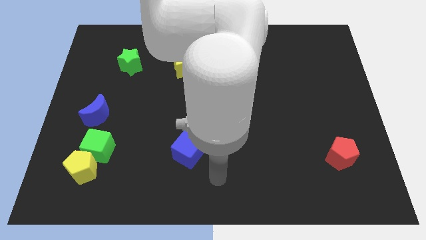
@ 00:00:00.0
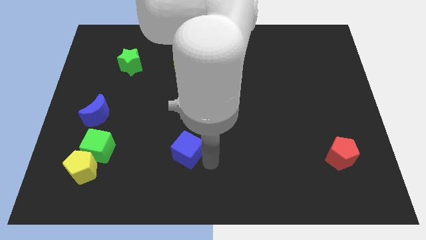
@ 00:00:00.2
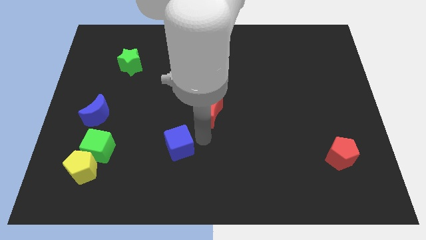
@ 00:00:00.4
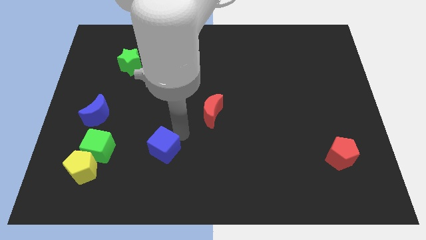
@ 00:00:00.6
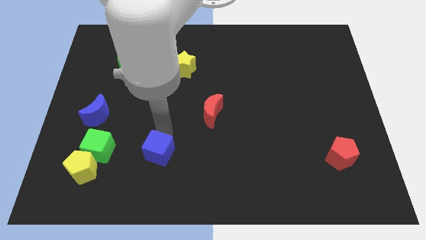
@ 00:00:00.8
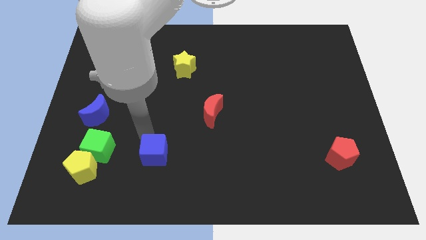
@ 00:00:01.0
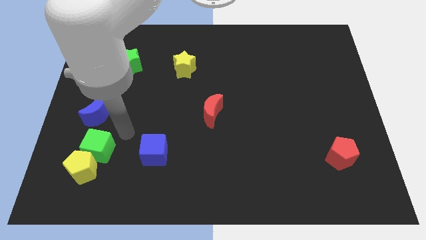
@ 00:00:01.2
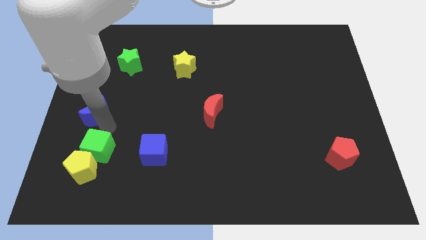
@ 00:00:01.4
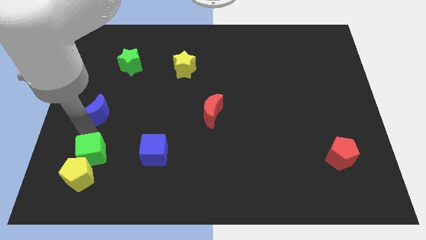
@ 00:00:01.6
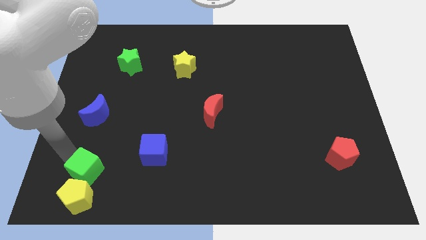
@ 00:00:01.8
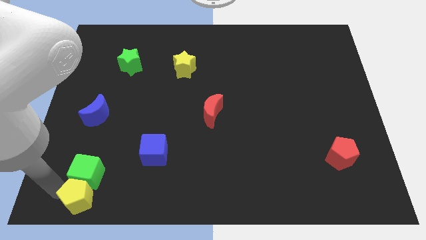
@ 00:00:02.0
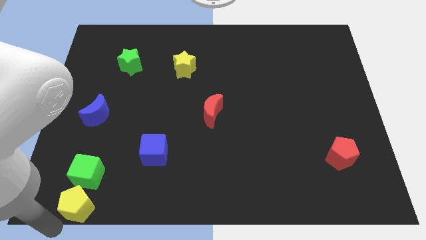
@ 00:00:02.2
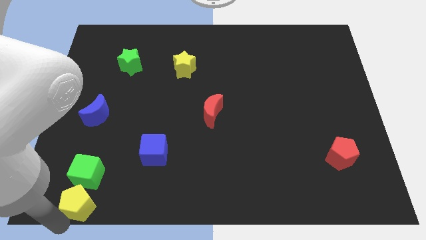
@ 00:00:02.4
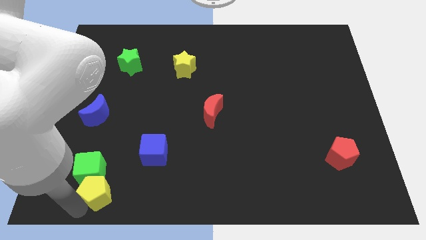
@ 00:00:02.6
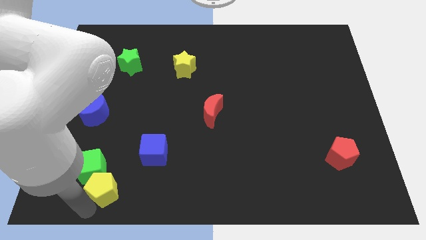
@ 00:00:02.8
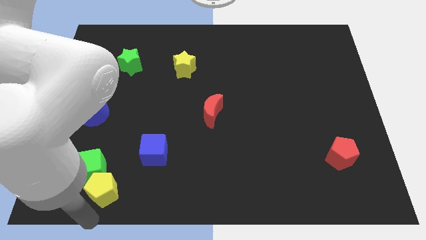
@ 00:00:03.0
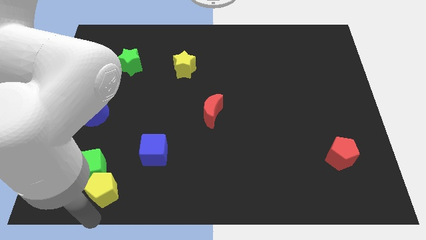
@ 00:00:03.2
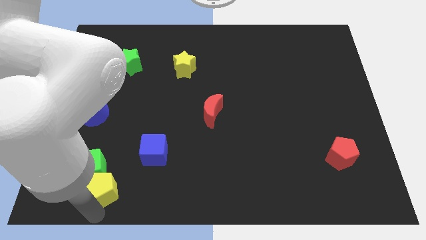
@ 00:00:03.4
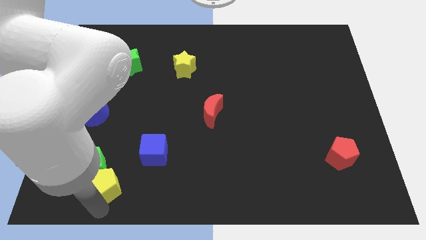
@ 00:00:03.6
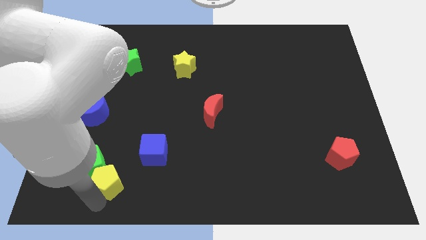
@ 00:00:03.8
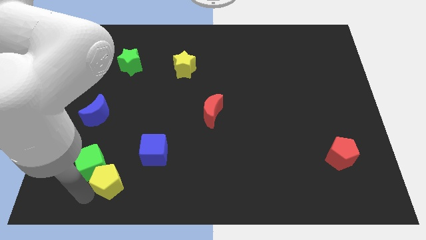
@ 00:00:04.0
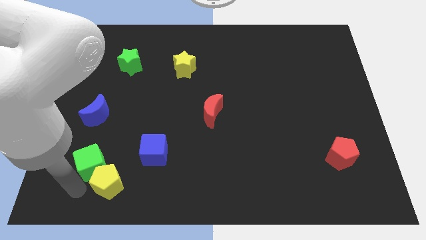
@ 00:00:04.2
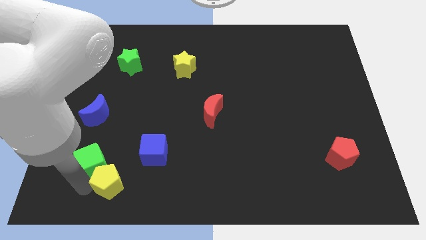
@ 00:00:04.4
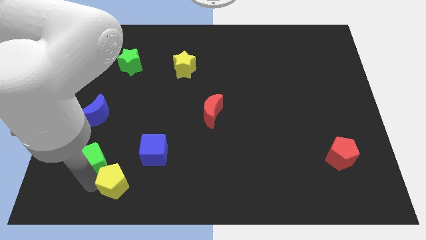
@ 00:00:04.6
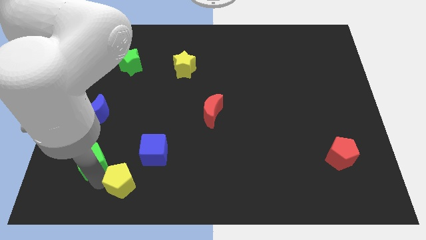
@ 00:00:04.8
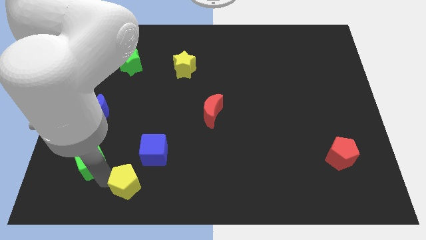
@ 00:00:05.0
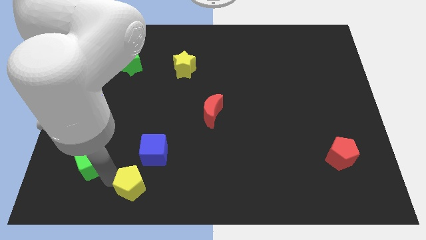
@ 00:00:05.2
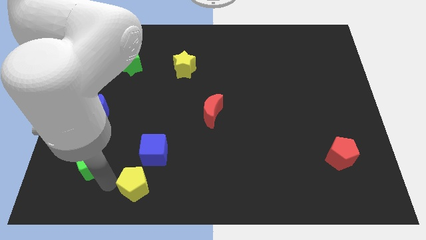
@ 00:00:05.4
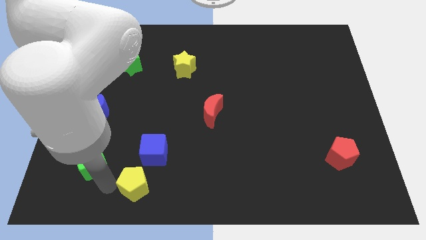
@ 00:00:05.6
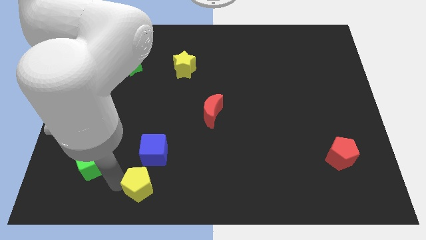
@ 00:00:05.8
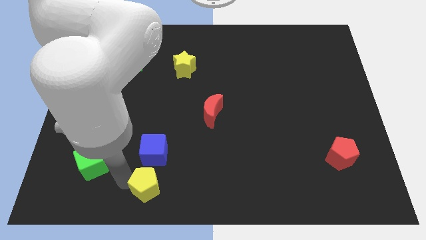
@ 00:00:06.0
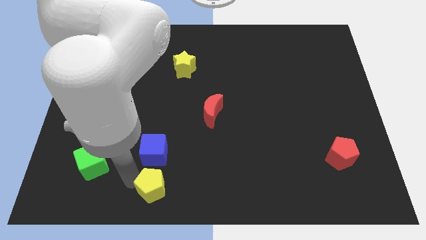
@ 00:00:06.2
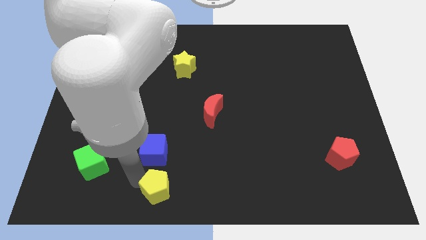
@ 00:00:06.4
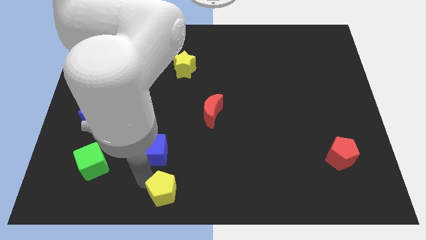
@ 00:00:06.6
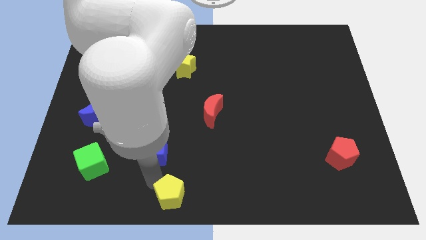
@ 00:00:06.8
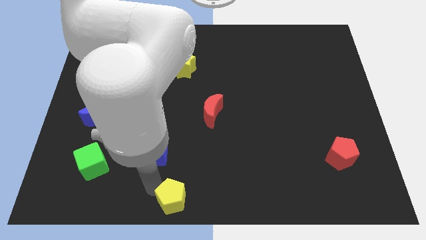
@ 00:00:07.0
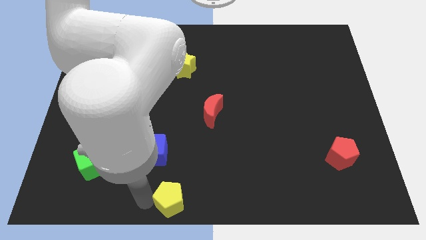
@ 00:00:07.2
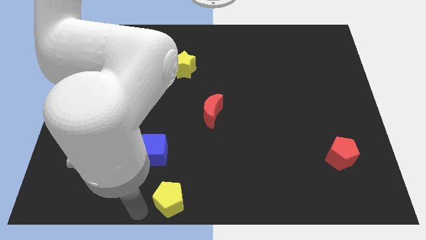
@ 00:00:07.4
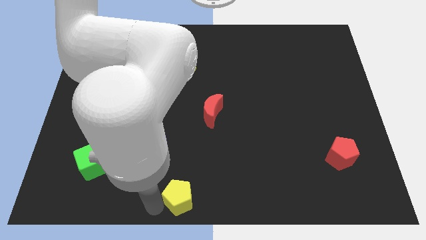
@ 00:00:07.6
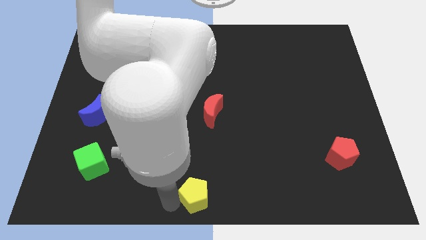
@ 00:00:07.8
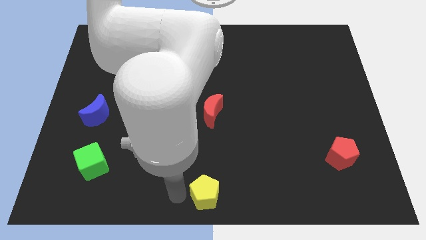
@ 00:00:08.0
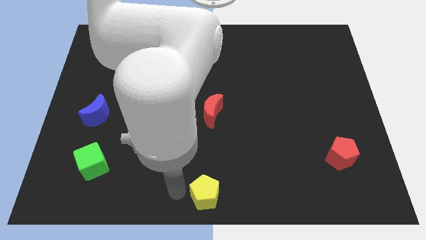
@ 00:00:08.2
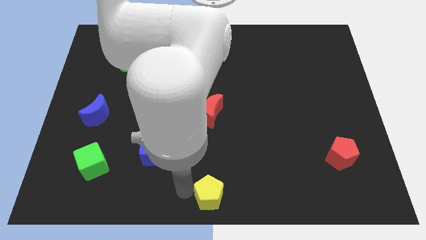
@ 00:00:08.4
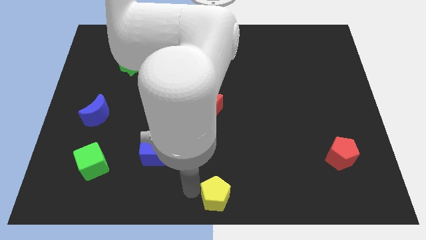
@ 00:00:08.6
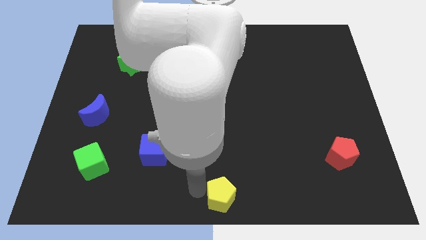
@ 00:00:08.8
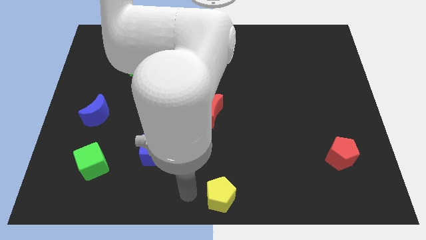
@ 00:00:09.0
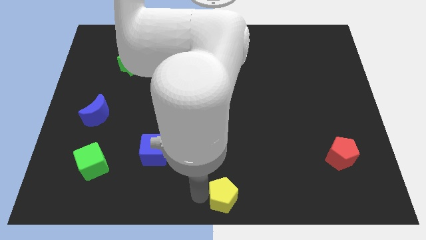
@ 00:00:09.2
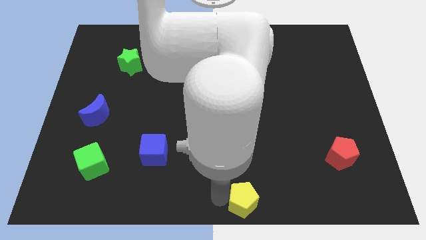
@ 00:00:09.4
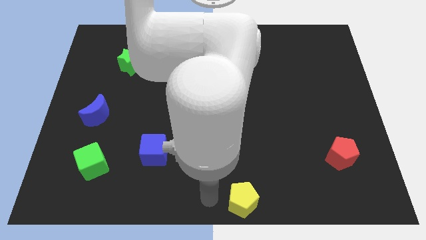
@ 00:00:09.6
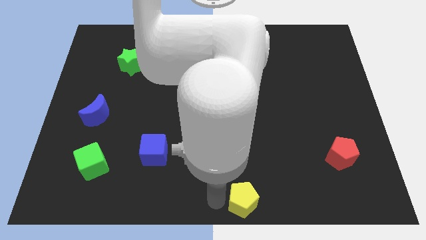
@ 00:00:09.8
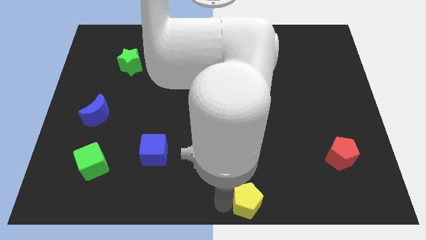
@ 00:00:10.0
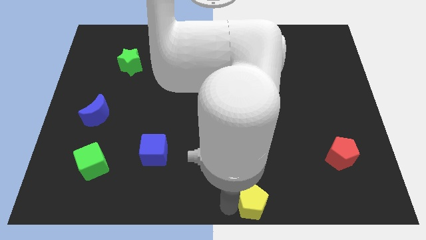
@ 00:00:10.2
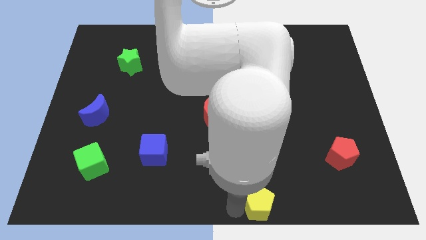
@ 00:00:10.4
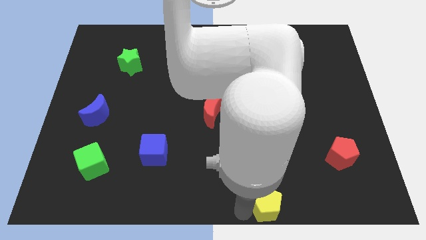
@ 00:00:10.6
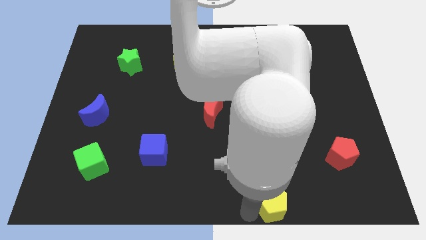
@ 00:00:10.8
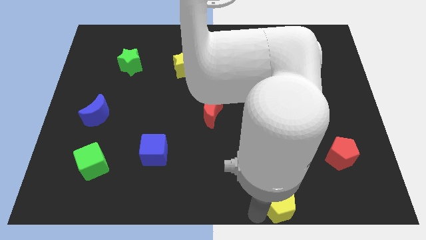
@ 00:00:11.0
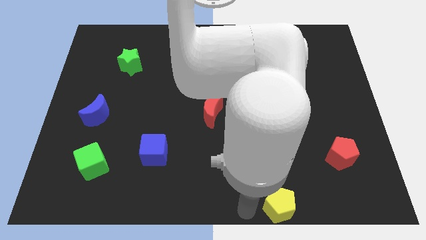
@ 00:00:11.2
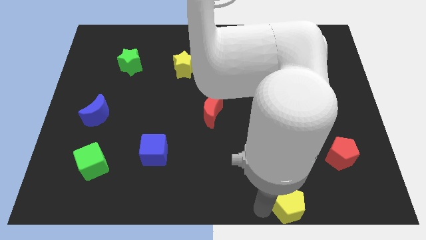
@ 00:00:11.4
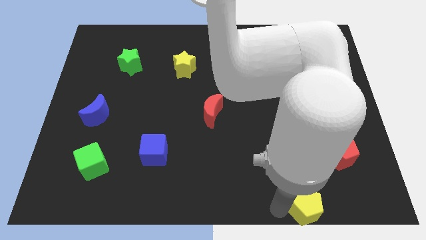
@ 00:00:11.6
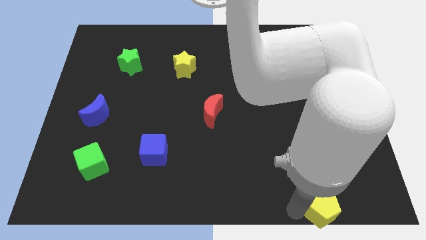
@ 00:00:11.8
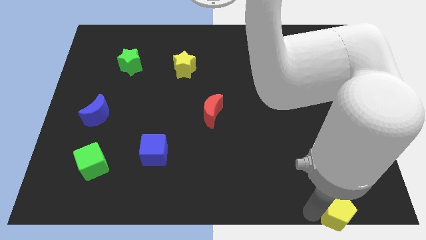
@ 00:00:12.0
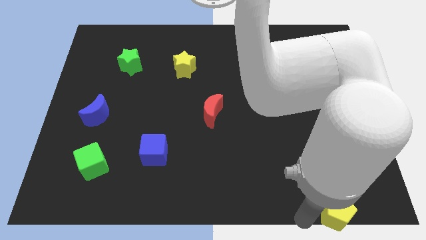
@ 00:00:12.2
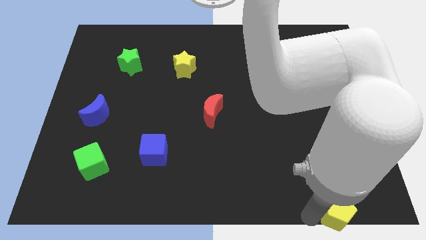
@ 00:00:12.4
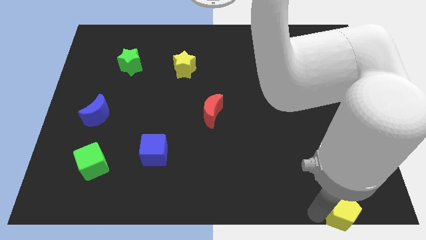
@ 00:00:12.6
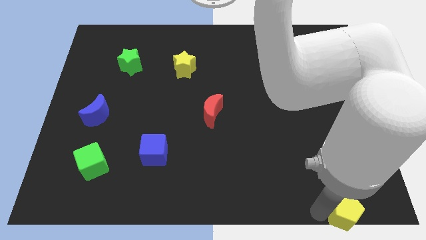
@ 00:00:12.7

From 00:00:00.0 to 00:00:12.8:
slide the yellow pentagon to the bottom right of the board

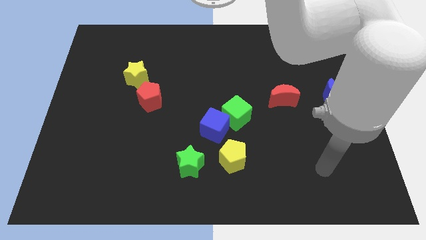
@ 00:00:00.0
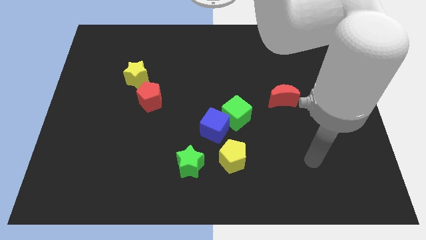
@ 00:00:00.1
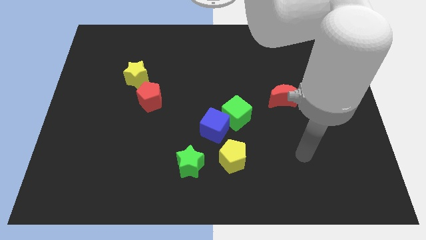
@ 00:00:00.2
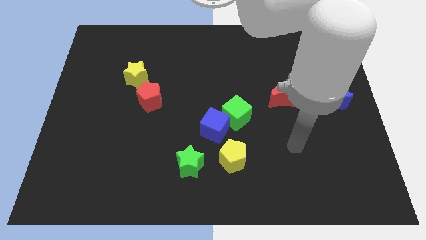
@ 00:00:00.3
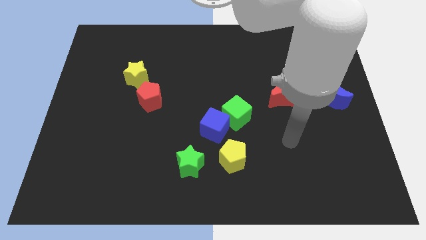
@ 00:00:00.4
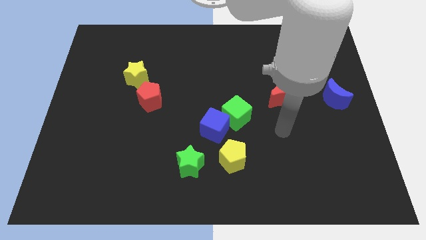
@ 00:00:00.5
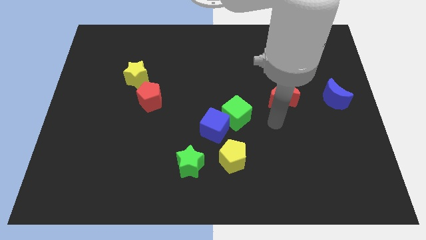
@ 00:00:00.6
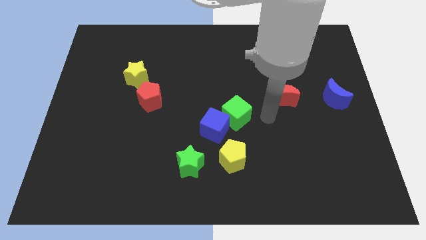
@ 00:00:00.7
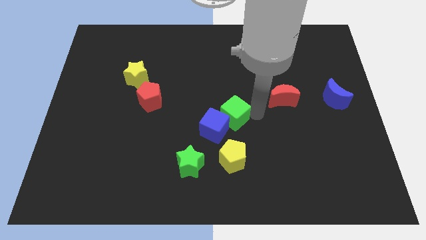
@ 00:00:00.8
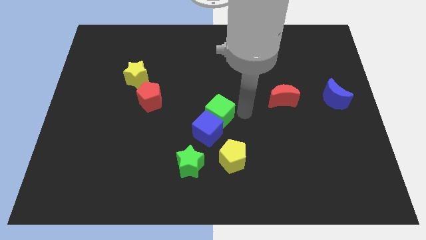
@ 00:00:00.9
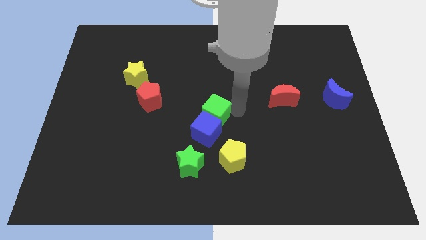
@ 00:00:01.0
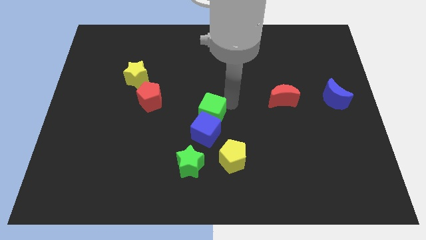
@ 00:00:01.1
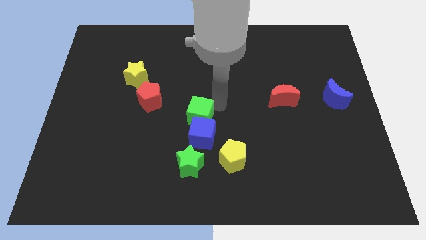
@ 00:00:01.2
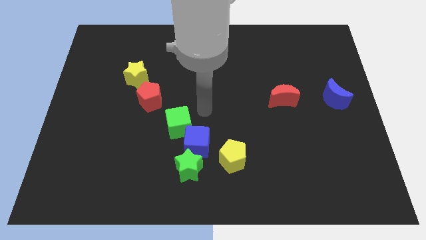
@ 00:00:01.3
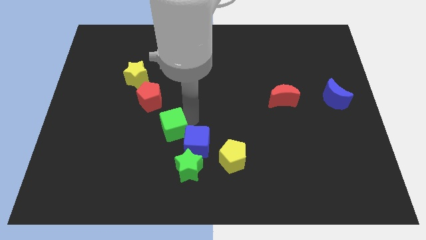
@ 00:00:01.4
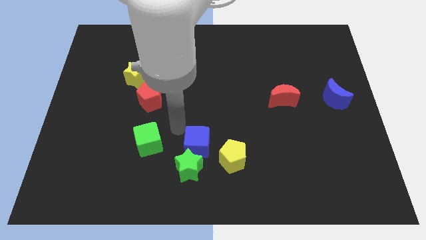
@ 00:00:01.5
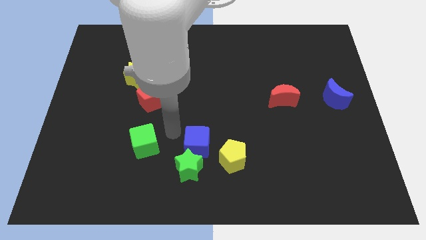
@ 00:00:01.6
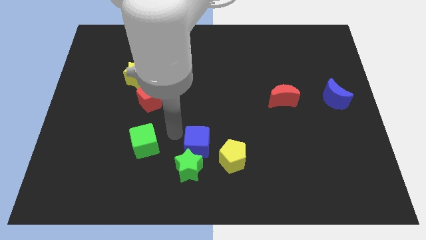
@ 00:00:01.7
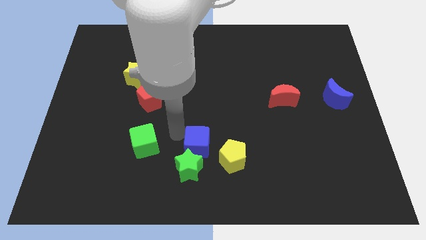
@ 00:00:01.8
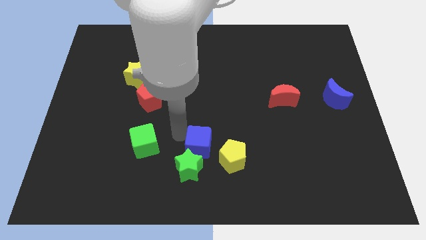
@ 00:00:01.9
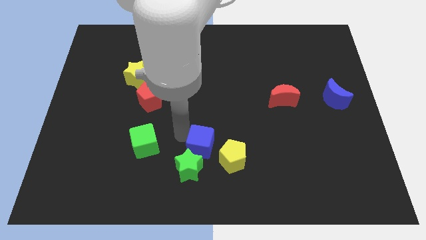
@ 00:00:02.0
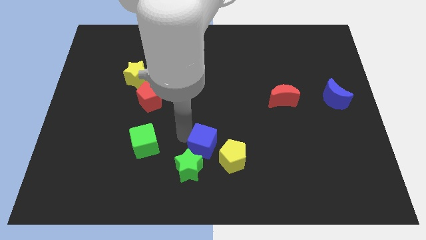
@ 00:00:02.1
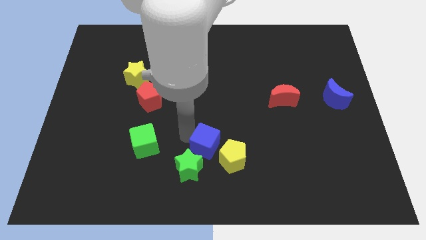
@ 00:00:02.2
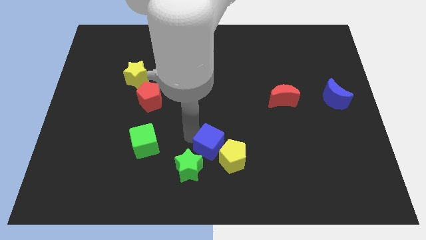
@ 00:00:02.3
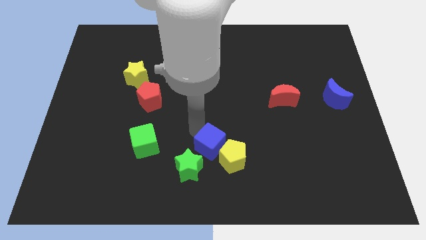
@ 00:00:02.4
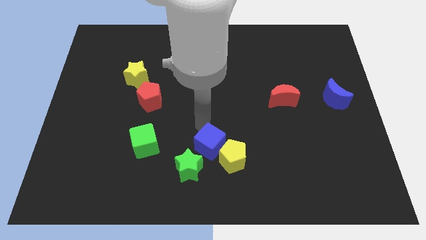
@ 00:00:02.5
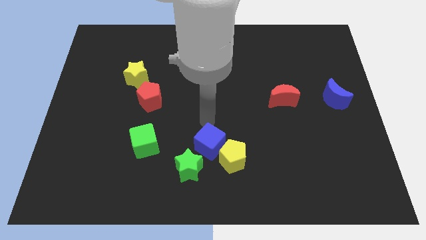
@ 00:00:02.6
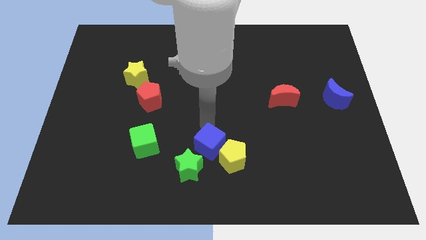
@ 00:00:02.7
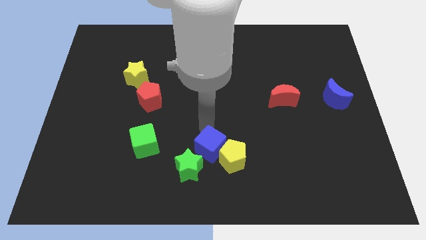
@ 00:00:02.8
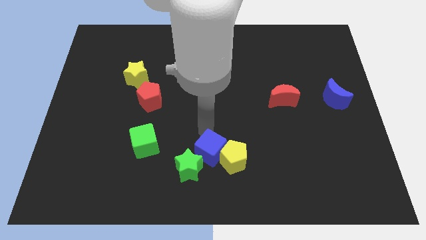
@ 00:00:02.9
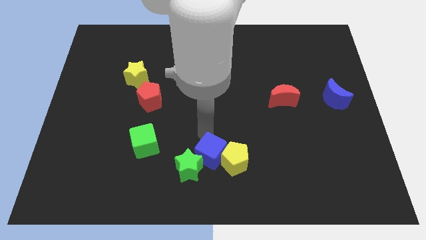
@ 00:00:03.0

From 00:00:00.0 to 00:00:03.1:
slide the blue cube to the bottom side
